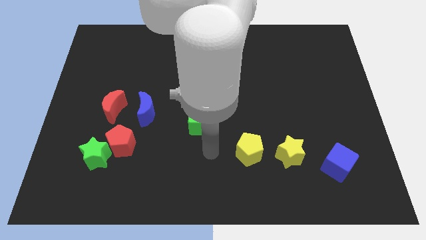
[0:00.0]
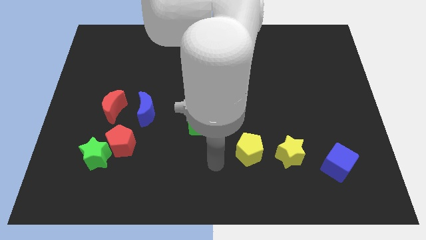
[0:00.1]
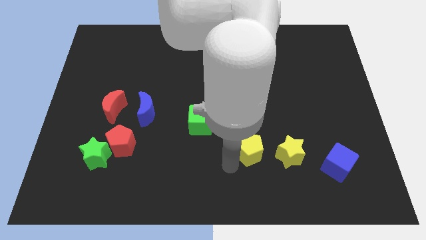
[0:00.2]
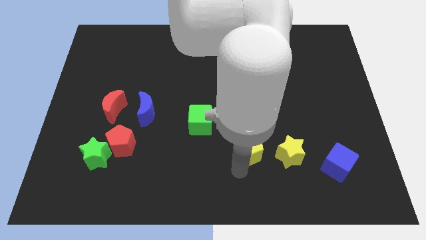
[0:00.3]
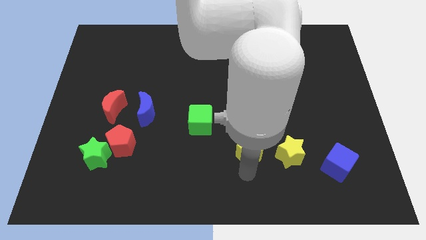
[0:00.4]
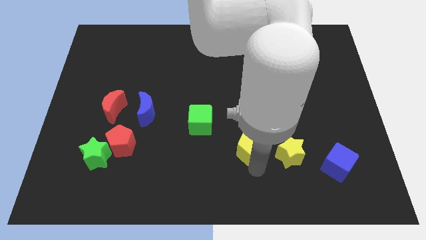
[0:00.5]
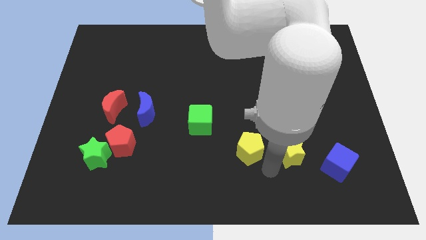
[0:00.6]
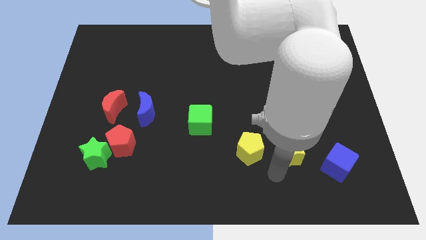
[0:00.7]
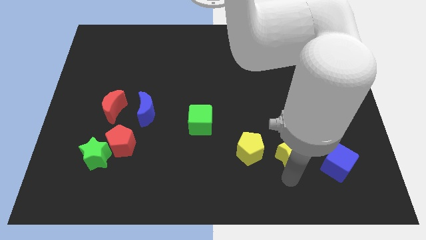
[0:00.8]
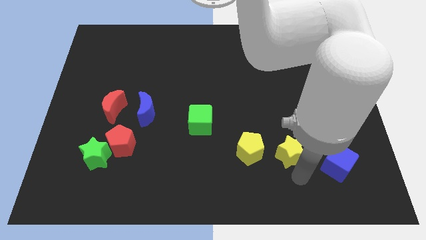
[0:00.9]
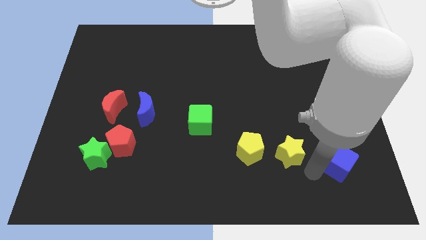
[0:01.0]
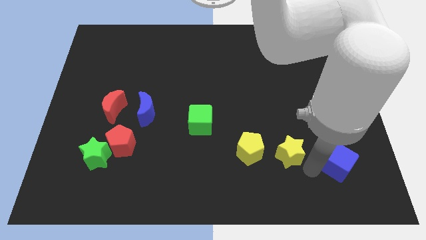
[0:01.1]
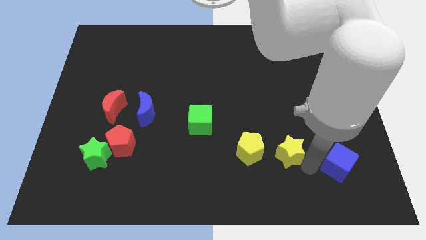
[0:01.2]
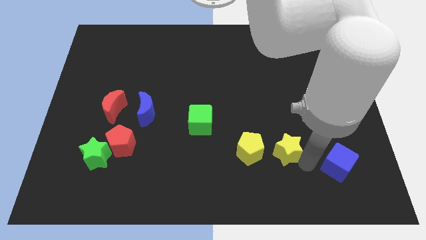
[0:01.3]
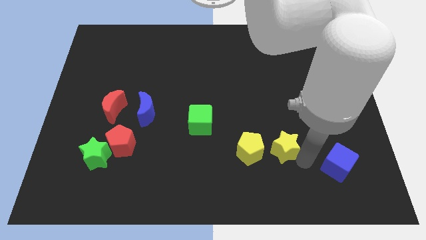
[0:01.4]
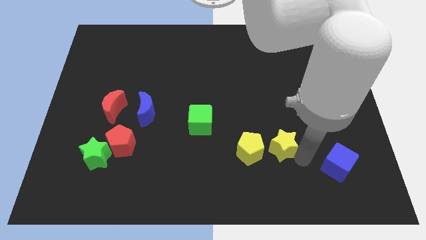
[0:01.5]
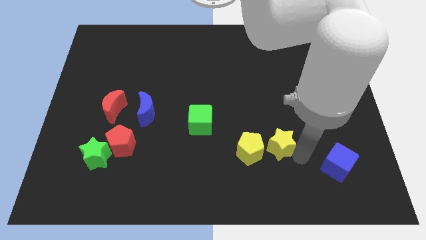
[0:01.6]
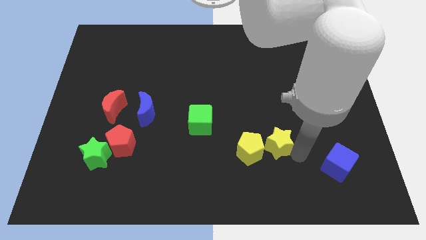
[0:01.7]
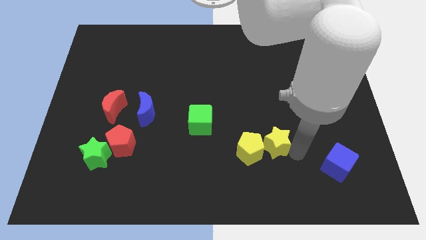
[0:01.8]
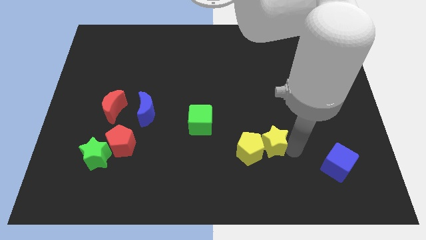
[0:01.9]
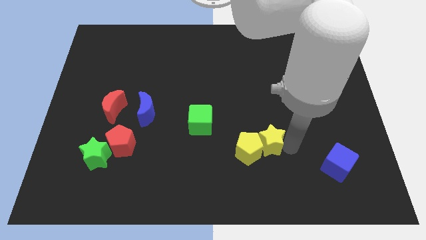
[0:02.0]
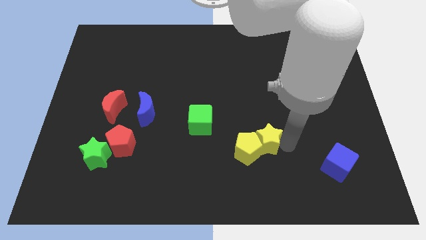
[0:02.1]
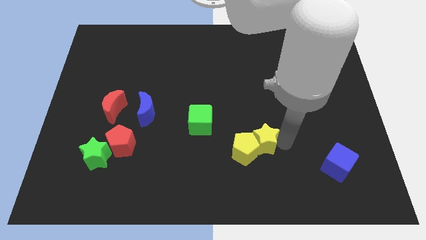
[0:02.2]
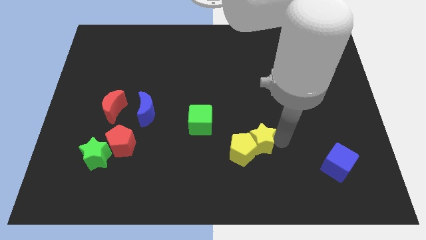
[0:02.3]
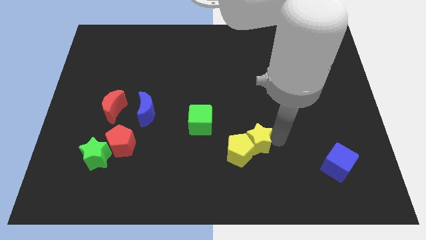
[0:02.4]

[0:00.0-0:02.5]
move the yellow star somewhat up and then to the left

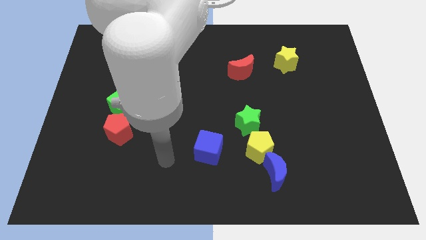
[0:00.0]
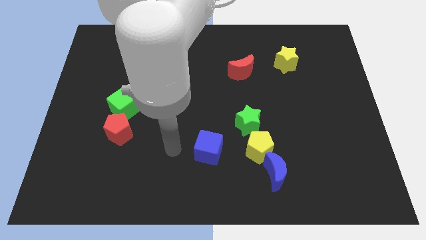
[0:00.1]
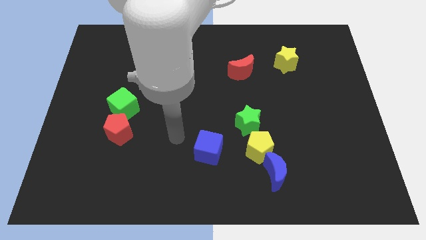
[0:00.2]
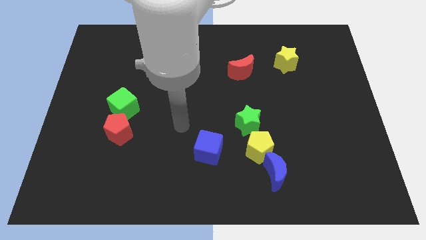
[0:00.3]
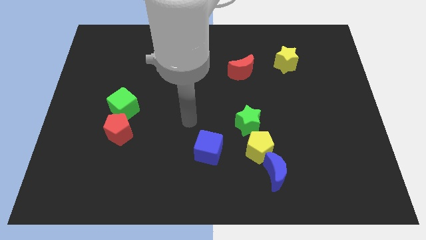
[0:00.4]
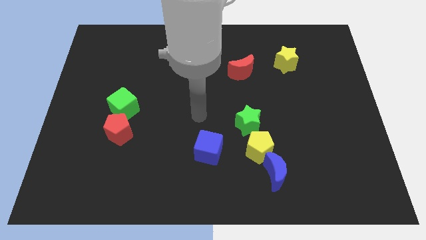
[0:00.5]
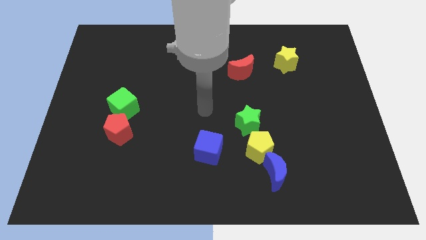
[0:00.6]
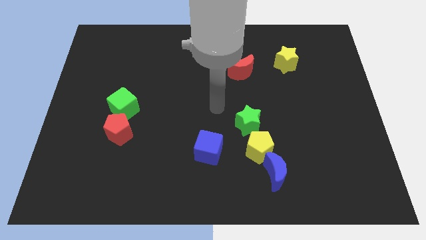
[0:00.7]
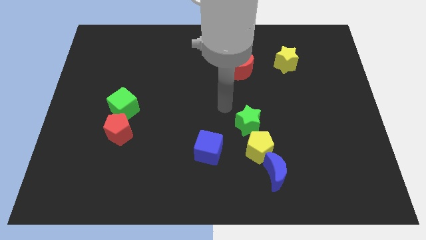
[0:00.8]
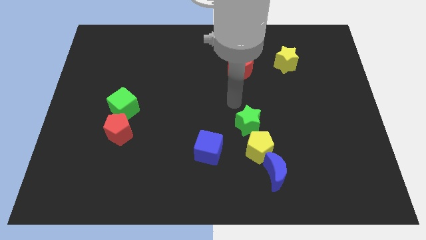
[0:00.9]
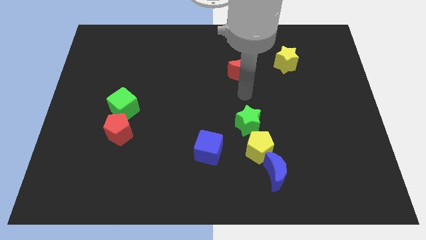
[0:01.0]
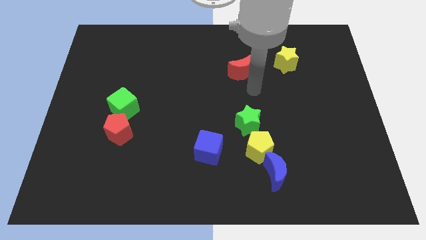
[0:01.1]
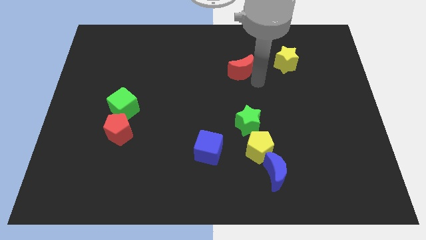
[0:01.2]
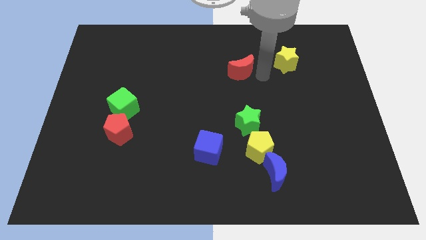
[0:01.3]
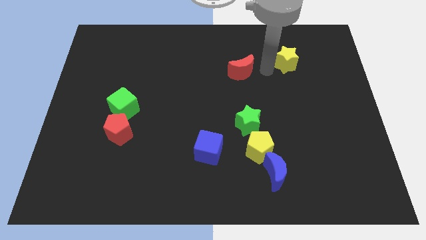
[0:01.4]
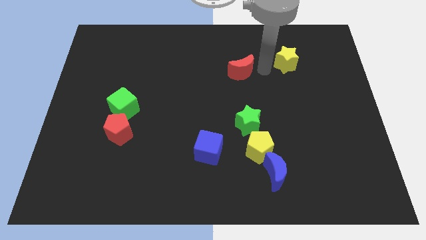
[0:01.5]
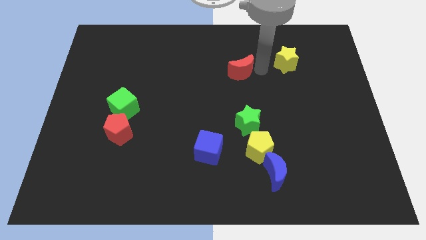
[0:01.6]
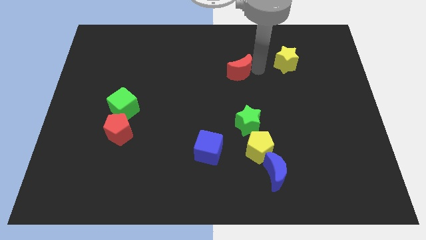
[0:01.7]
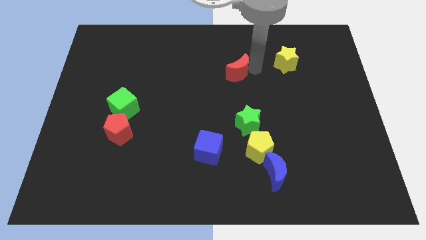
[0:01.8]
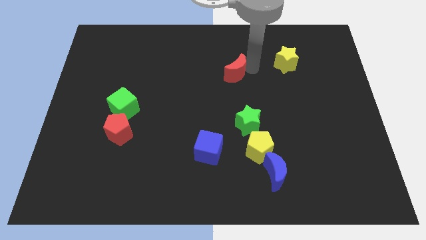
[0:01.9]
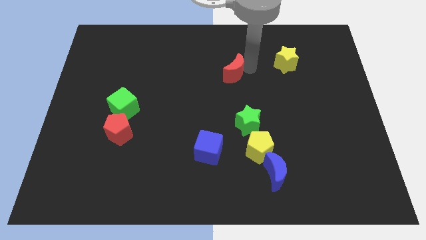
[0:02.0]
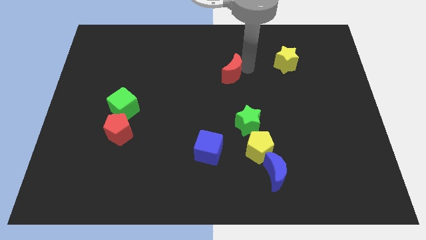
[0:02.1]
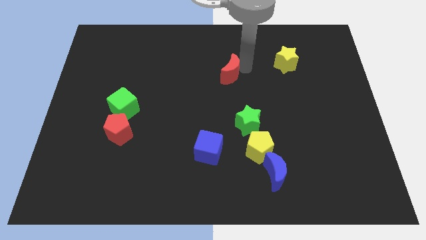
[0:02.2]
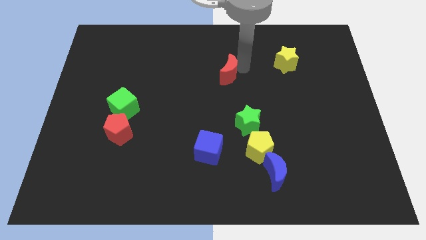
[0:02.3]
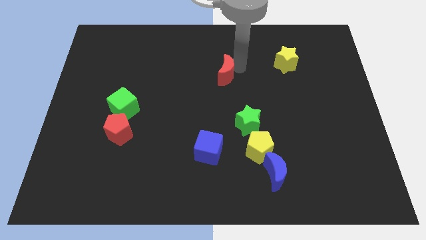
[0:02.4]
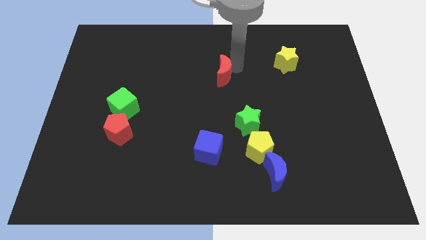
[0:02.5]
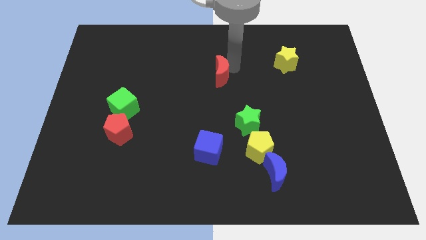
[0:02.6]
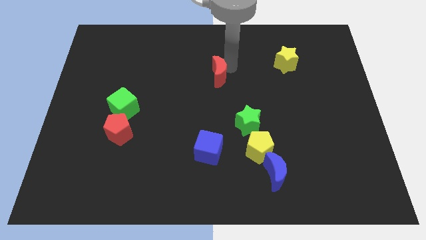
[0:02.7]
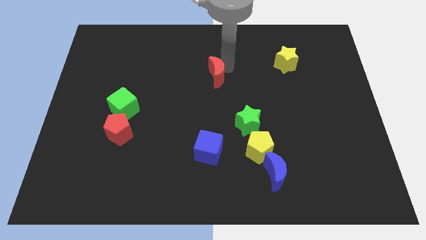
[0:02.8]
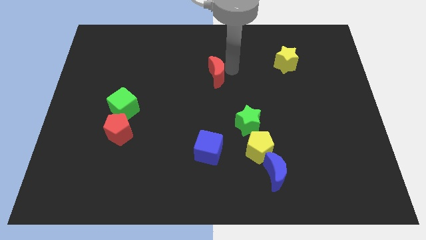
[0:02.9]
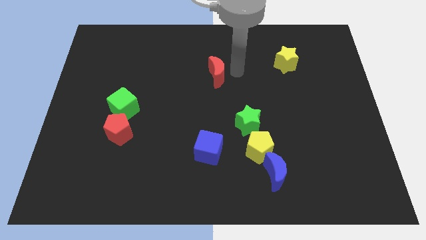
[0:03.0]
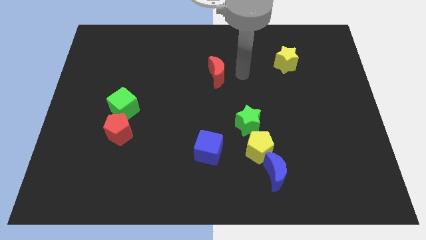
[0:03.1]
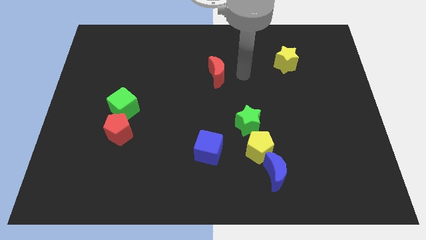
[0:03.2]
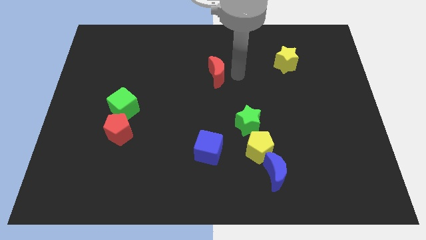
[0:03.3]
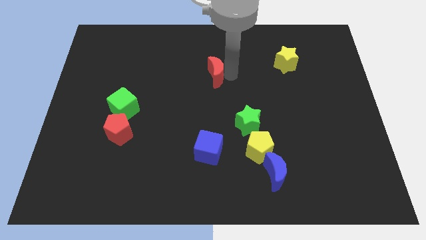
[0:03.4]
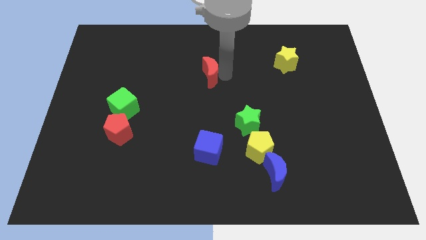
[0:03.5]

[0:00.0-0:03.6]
slide the red moon slightly to the left

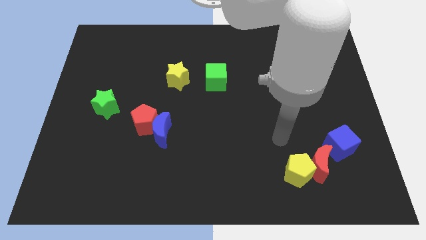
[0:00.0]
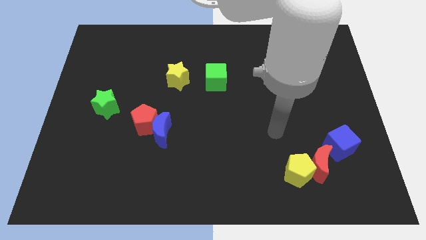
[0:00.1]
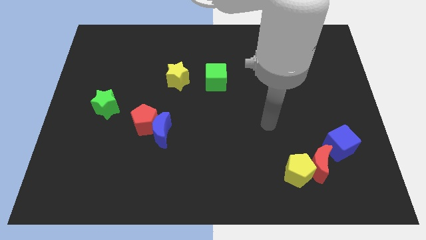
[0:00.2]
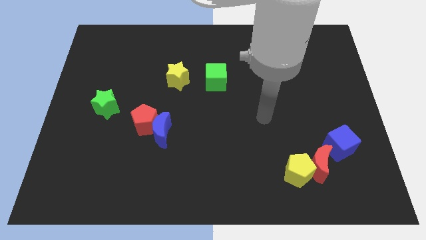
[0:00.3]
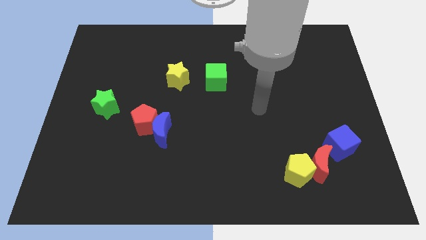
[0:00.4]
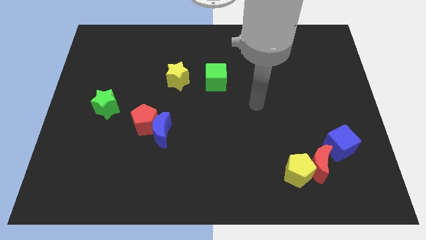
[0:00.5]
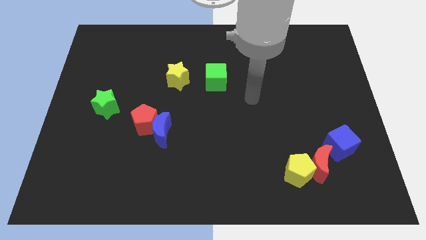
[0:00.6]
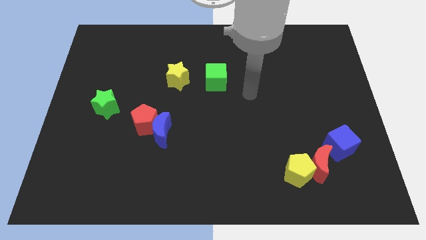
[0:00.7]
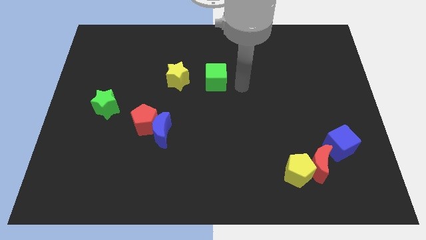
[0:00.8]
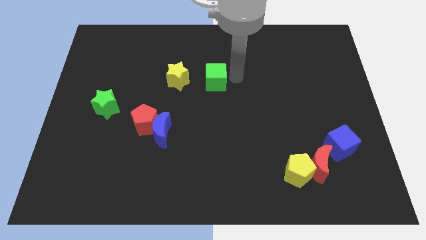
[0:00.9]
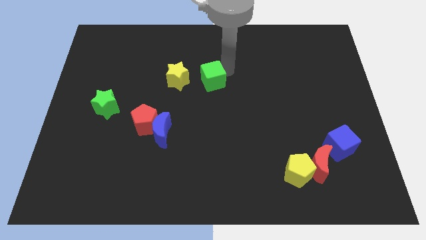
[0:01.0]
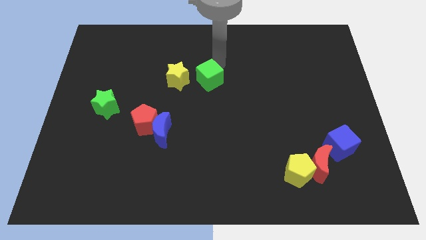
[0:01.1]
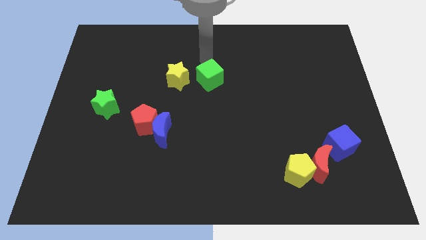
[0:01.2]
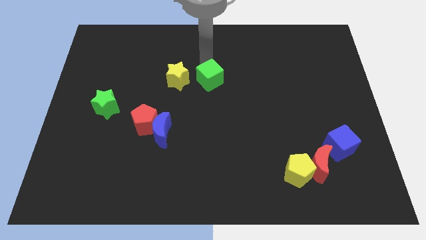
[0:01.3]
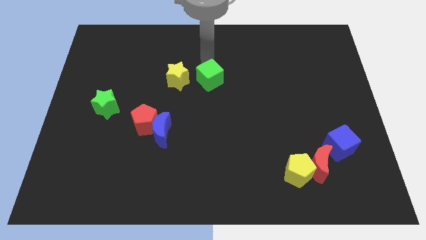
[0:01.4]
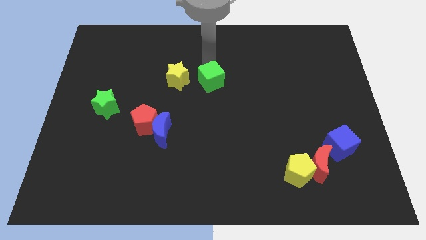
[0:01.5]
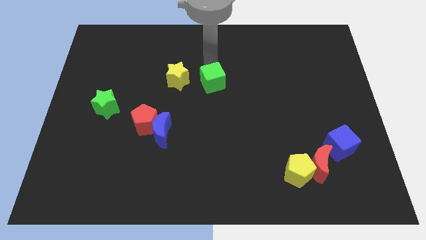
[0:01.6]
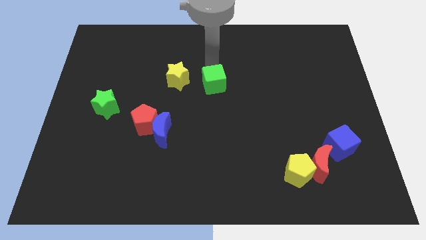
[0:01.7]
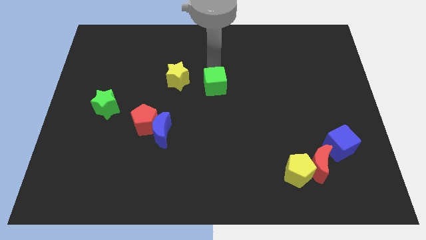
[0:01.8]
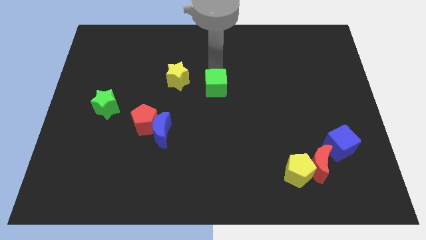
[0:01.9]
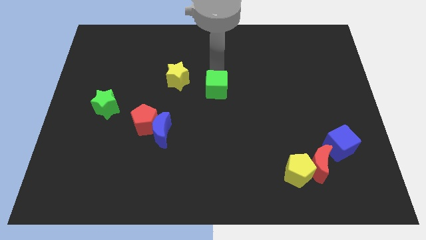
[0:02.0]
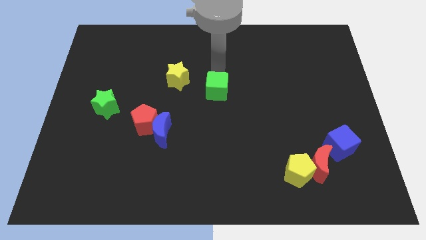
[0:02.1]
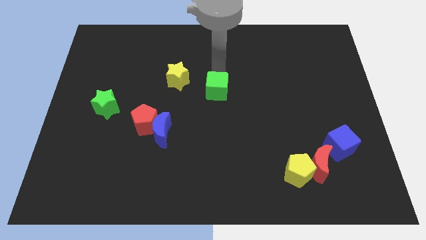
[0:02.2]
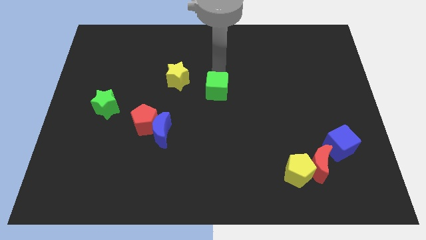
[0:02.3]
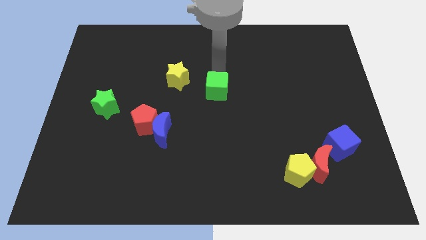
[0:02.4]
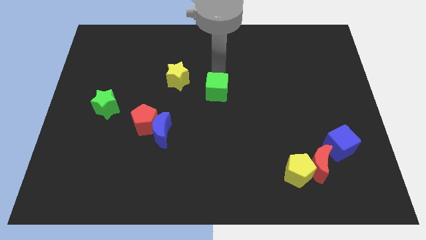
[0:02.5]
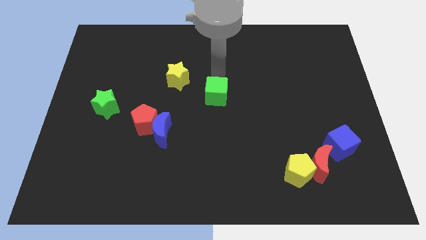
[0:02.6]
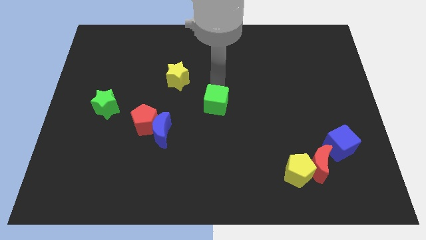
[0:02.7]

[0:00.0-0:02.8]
slide the green cube down a little
